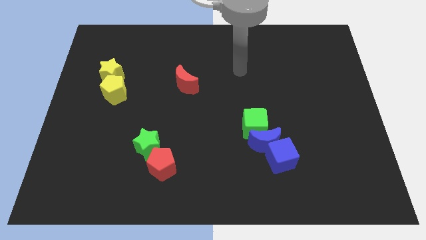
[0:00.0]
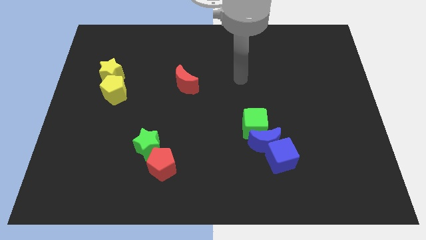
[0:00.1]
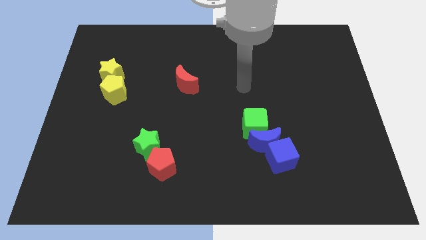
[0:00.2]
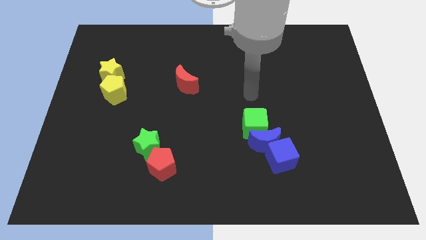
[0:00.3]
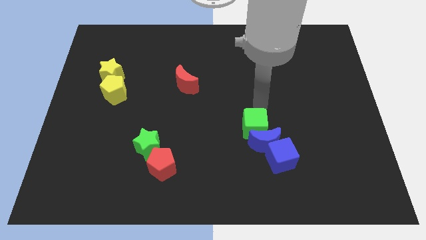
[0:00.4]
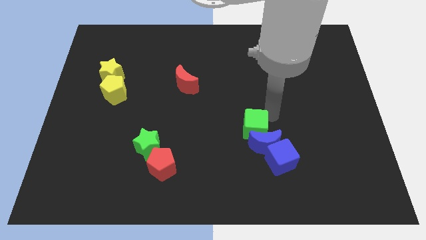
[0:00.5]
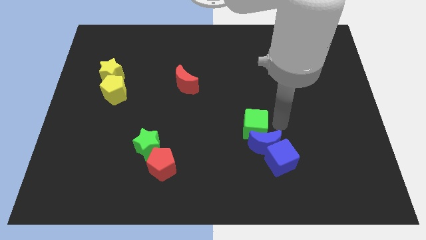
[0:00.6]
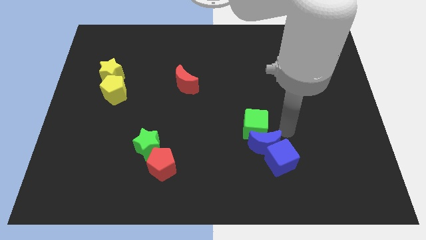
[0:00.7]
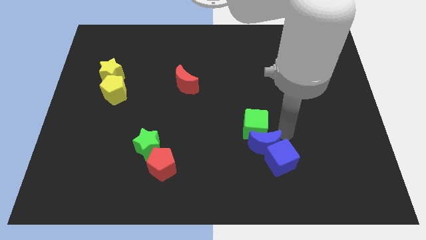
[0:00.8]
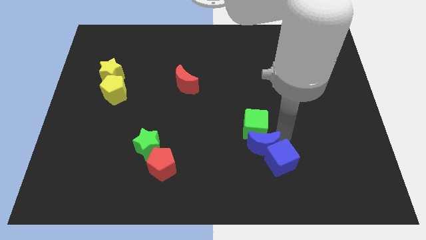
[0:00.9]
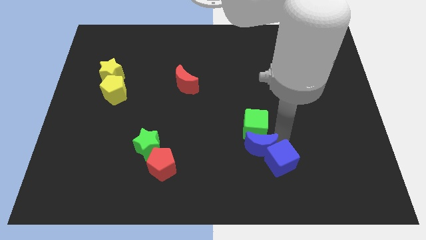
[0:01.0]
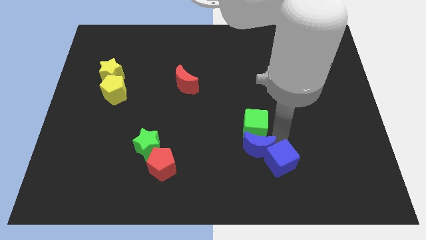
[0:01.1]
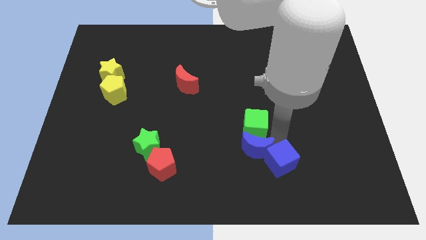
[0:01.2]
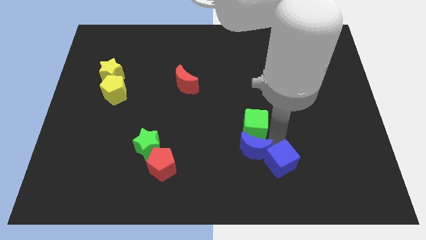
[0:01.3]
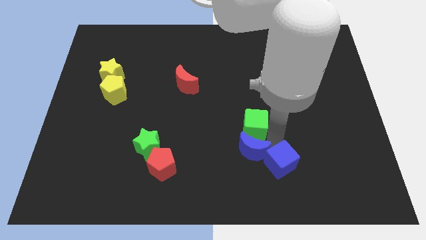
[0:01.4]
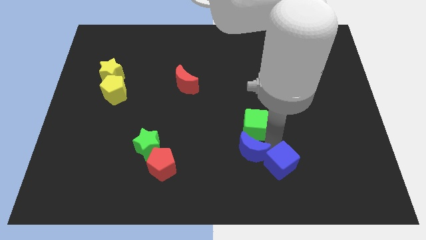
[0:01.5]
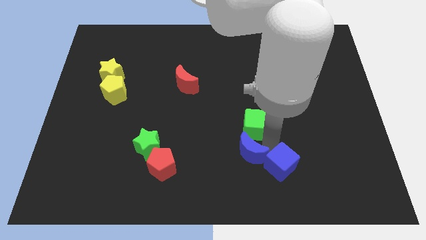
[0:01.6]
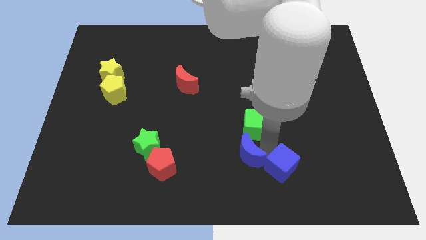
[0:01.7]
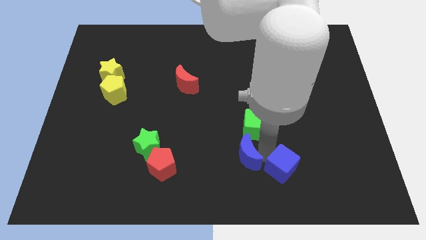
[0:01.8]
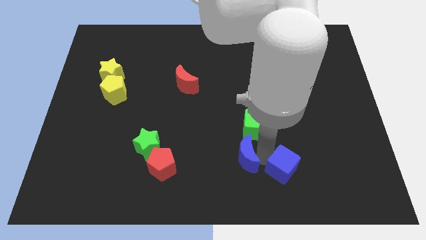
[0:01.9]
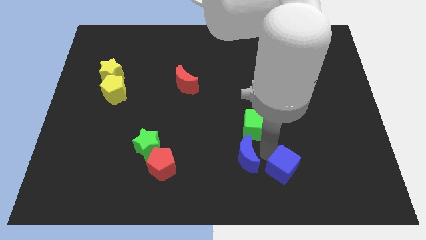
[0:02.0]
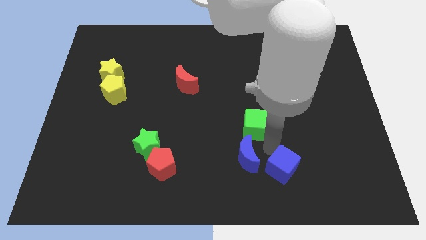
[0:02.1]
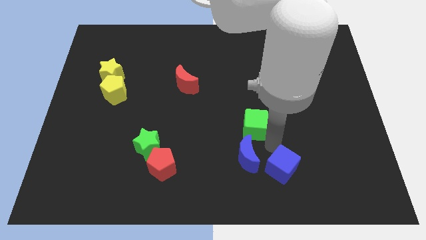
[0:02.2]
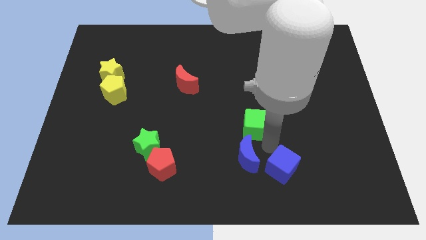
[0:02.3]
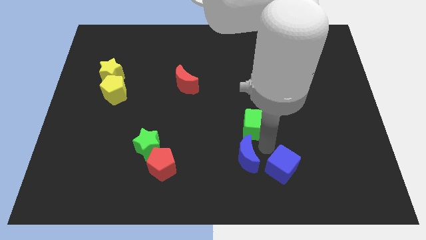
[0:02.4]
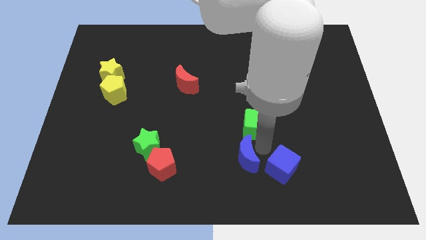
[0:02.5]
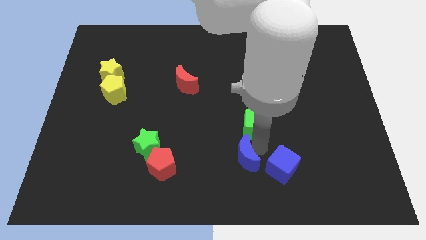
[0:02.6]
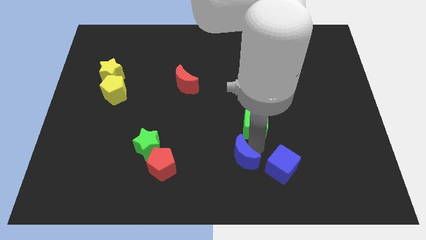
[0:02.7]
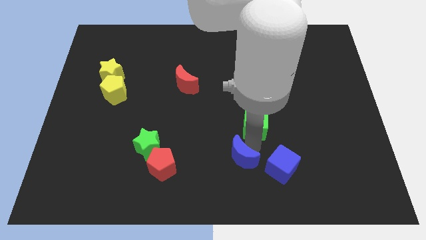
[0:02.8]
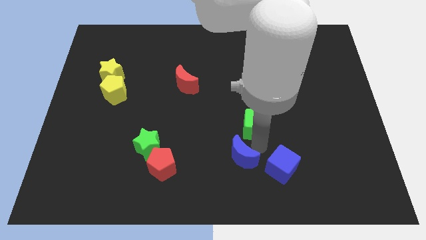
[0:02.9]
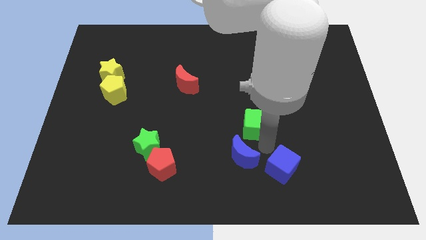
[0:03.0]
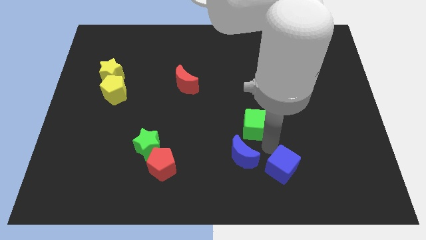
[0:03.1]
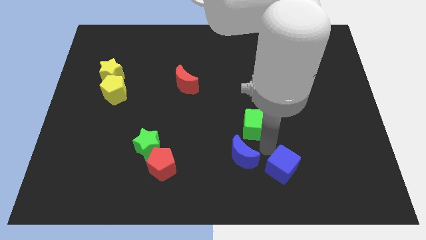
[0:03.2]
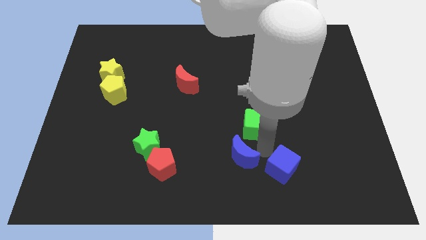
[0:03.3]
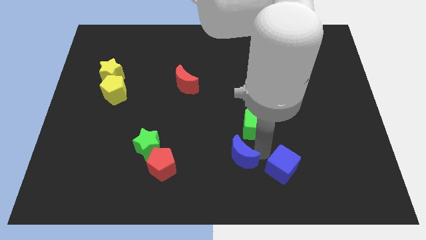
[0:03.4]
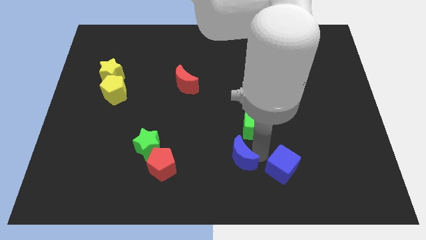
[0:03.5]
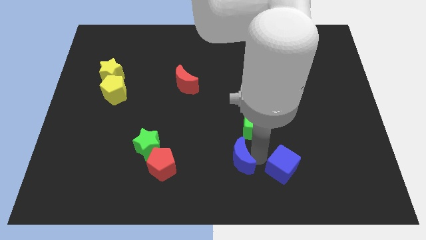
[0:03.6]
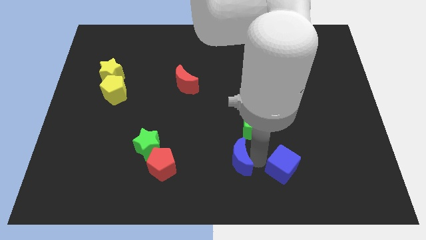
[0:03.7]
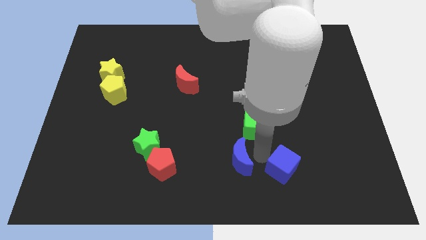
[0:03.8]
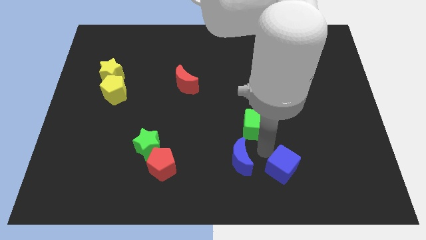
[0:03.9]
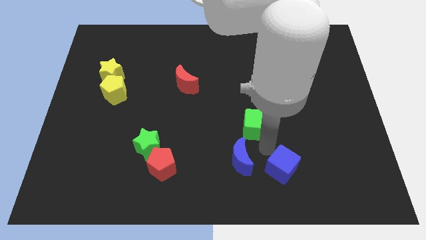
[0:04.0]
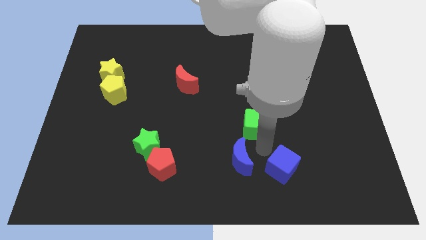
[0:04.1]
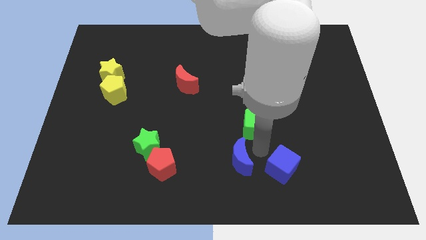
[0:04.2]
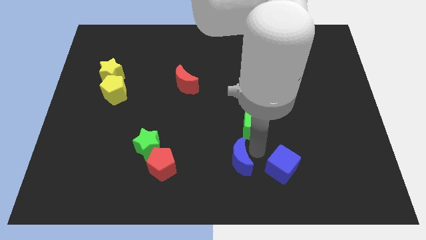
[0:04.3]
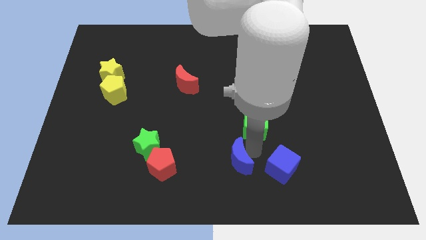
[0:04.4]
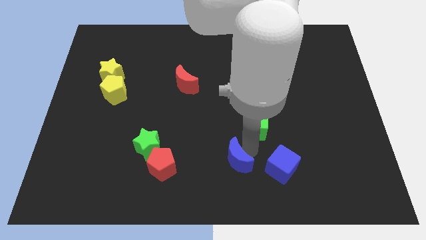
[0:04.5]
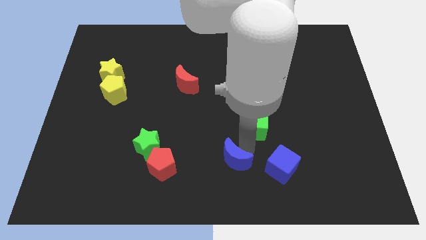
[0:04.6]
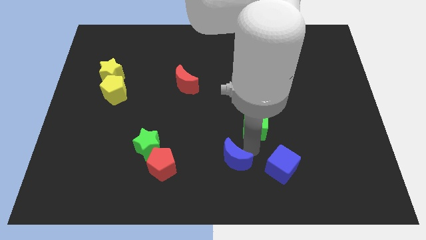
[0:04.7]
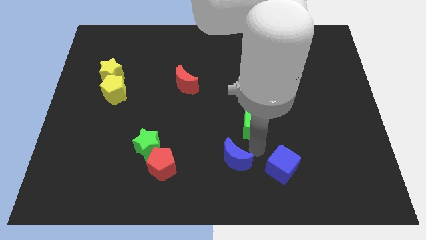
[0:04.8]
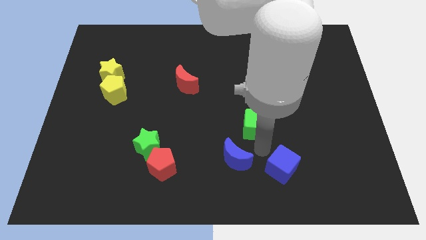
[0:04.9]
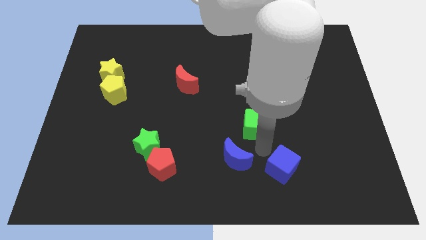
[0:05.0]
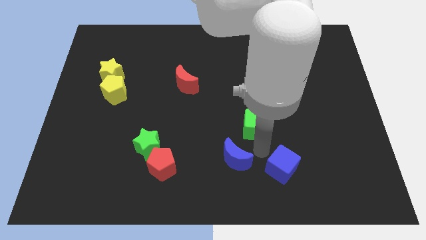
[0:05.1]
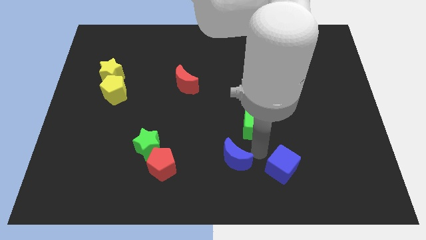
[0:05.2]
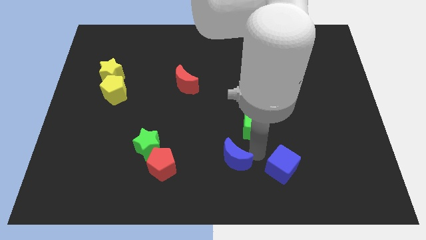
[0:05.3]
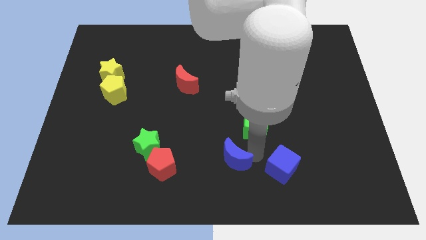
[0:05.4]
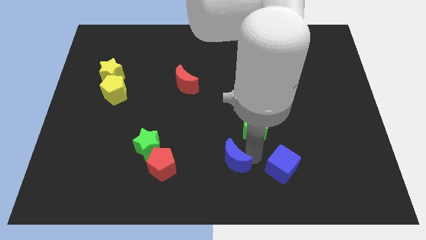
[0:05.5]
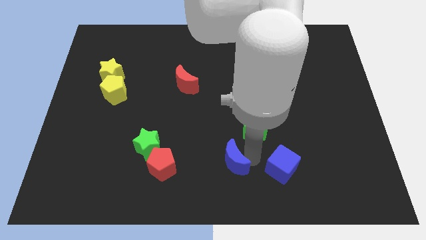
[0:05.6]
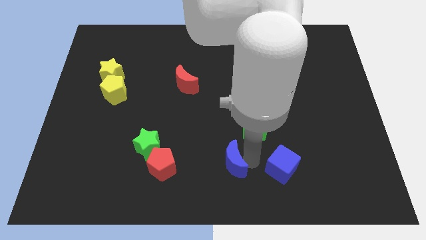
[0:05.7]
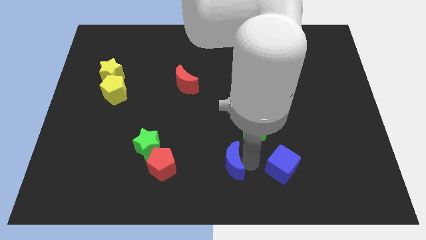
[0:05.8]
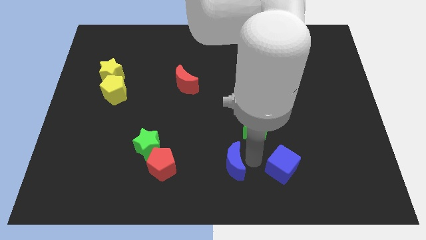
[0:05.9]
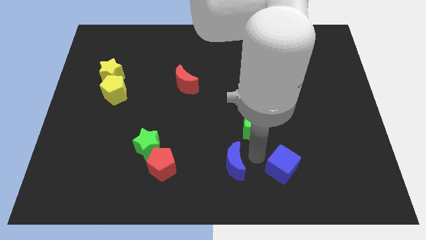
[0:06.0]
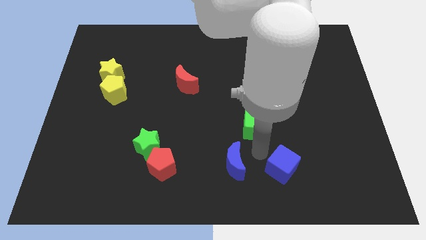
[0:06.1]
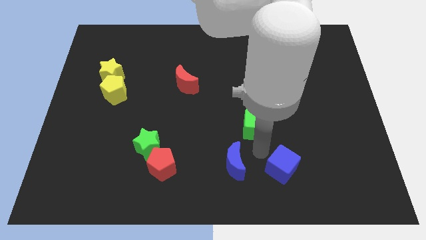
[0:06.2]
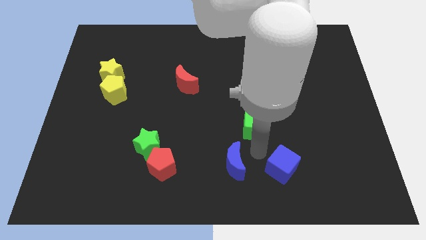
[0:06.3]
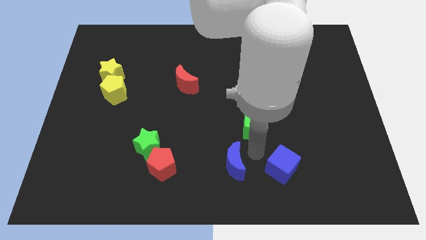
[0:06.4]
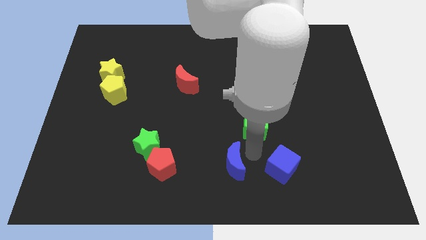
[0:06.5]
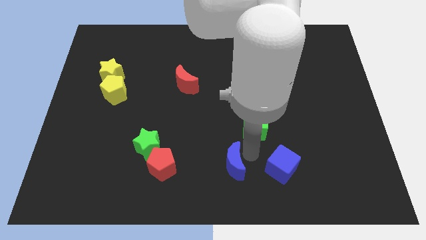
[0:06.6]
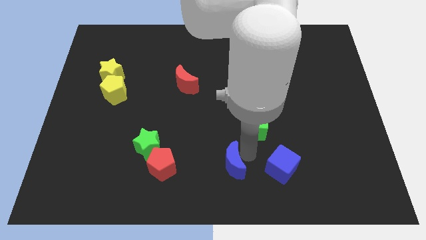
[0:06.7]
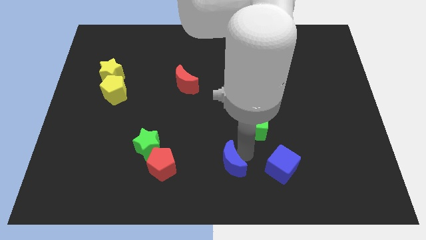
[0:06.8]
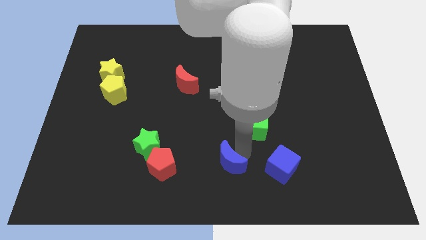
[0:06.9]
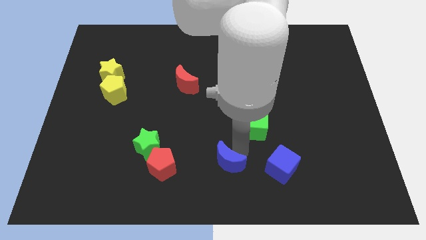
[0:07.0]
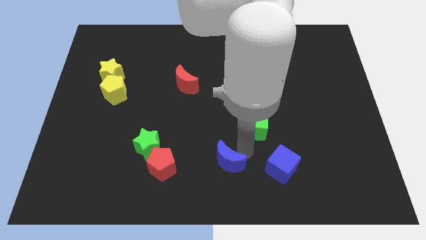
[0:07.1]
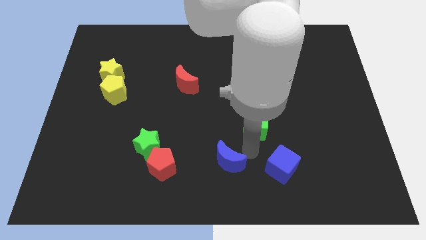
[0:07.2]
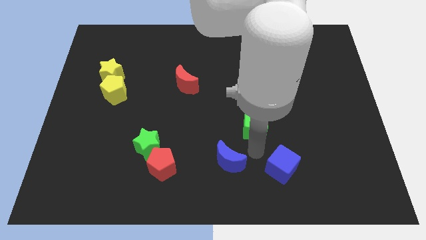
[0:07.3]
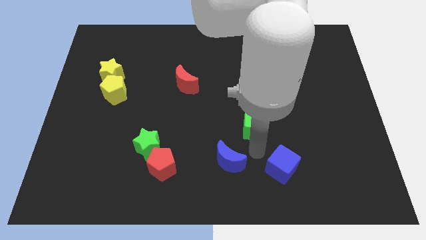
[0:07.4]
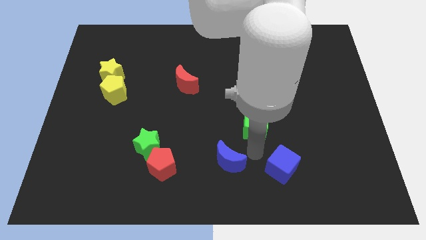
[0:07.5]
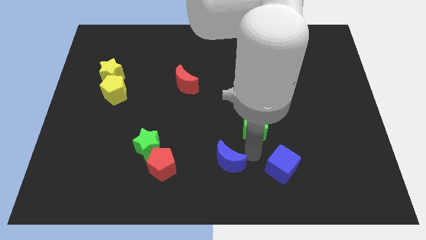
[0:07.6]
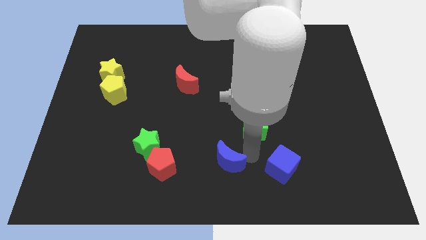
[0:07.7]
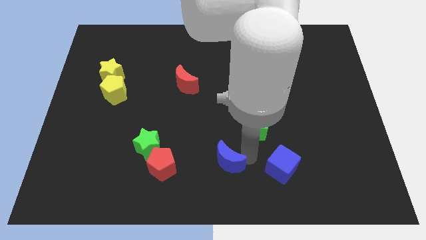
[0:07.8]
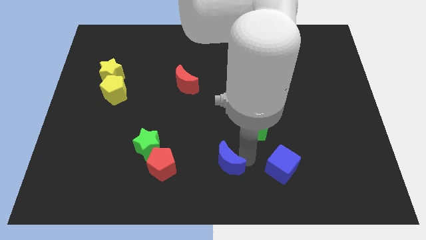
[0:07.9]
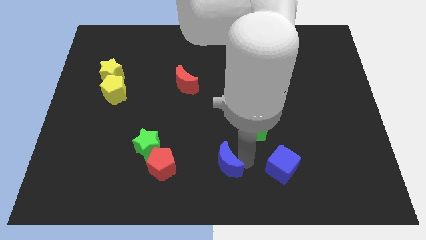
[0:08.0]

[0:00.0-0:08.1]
pull the blue moon apart from the blue cube and green cube

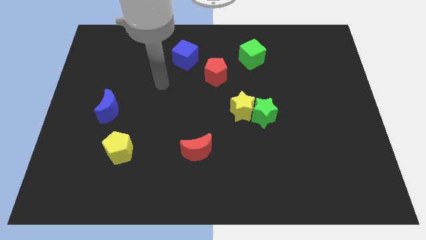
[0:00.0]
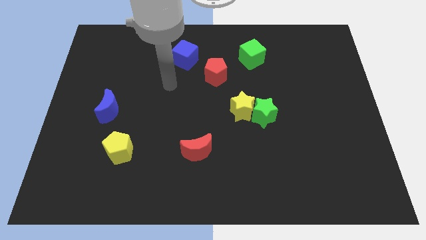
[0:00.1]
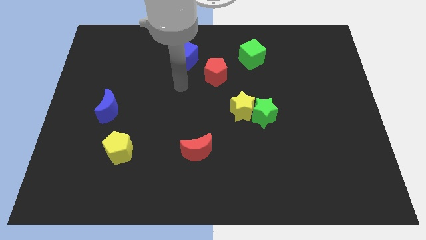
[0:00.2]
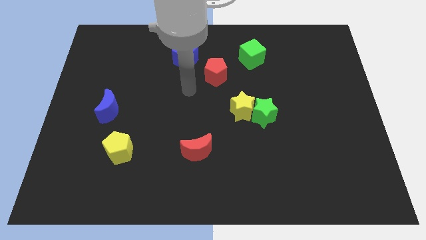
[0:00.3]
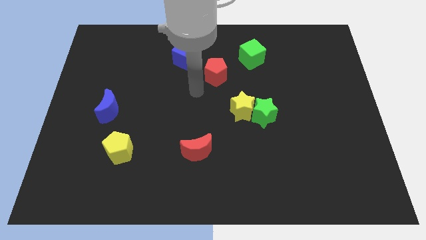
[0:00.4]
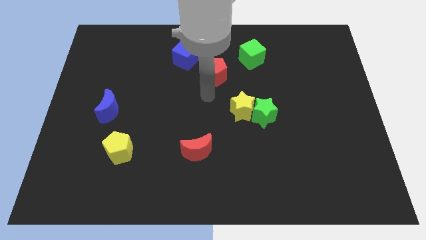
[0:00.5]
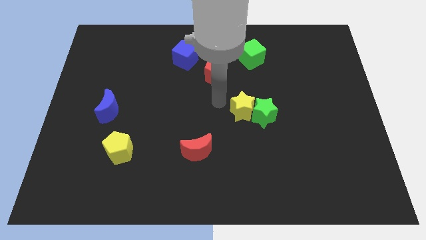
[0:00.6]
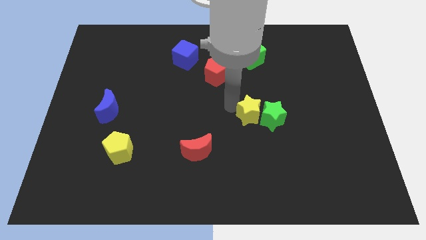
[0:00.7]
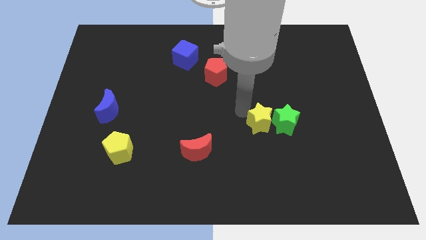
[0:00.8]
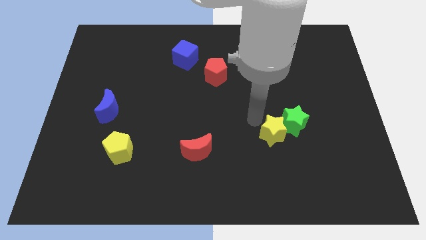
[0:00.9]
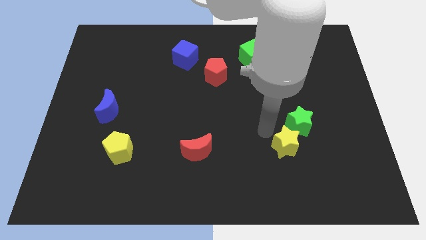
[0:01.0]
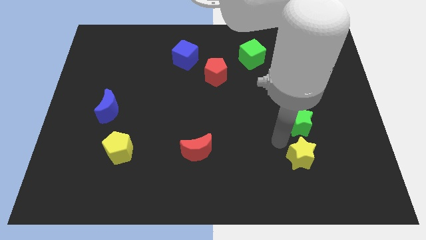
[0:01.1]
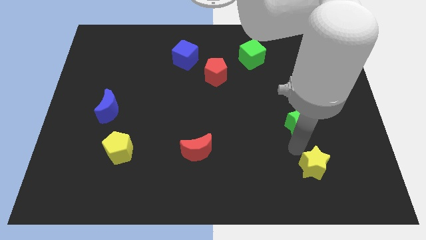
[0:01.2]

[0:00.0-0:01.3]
pull the green star apart from the yellow star
